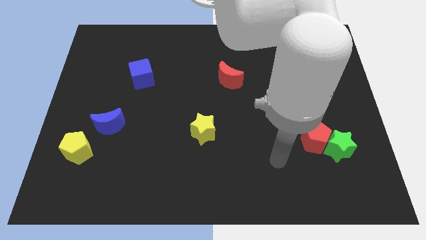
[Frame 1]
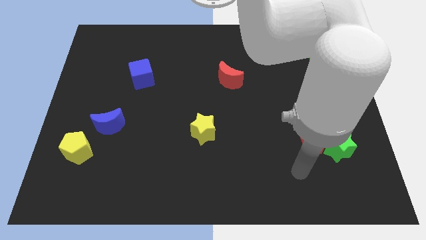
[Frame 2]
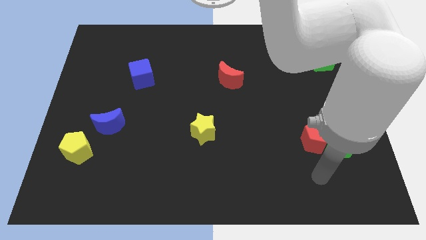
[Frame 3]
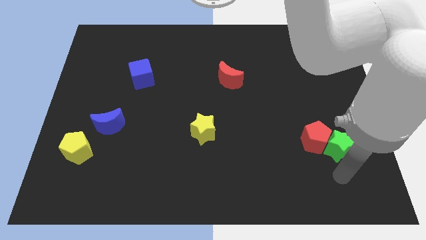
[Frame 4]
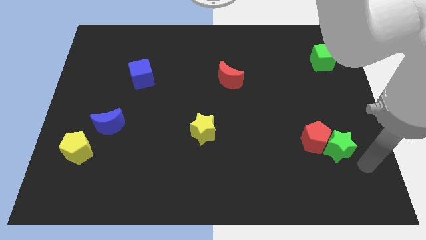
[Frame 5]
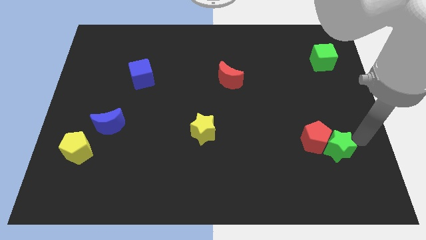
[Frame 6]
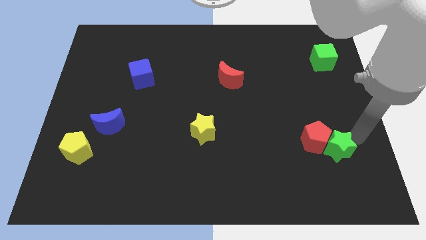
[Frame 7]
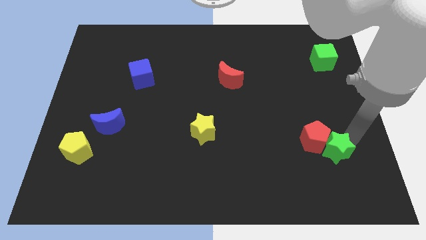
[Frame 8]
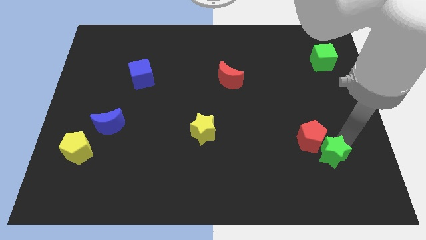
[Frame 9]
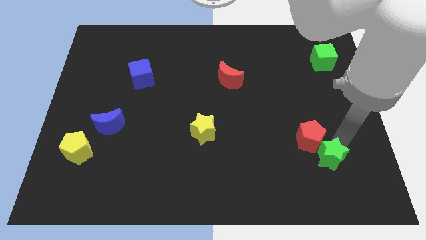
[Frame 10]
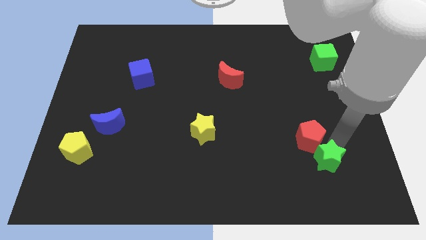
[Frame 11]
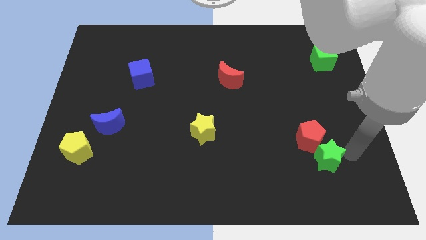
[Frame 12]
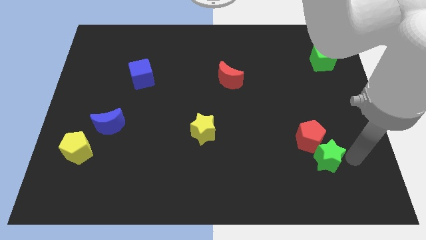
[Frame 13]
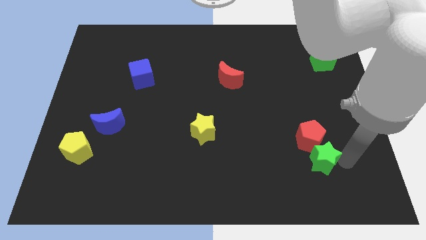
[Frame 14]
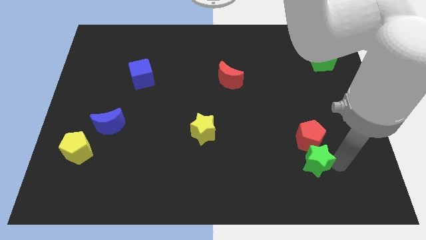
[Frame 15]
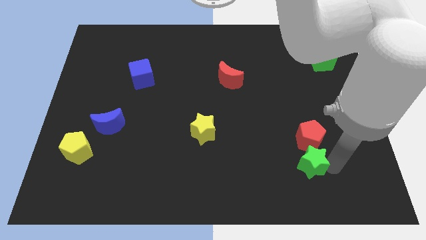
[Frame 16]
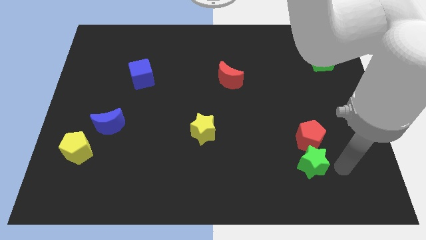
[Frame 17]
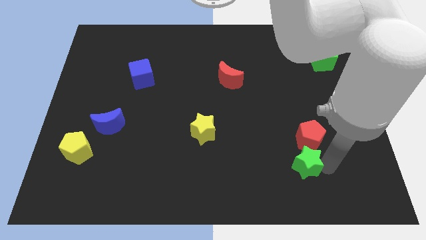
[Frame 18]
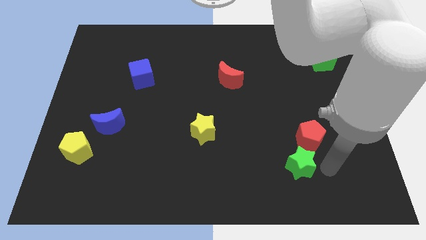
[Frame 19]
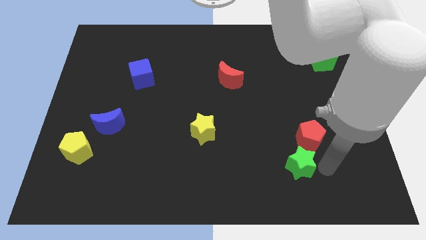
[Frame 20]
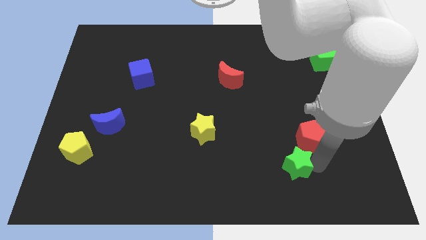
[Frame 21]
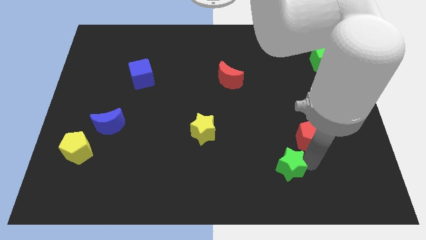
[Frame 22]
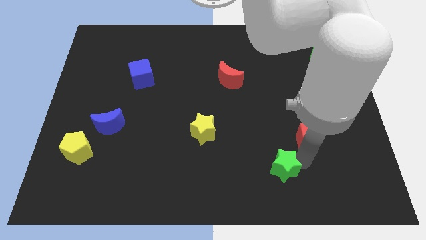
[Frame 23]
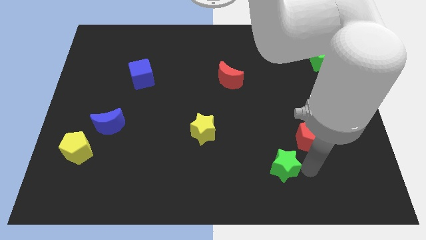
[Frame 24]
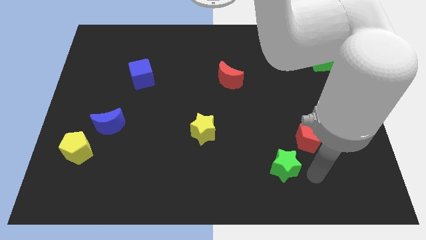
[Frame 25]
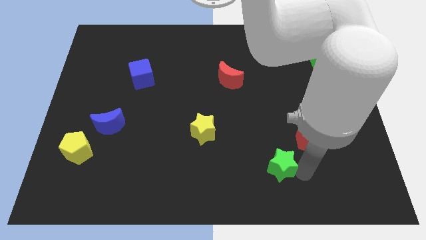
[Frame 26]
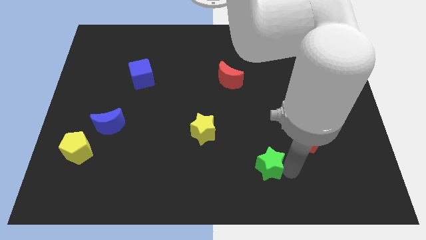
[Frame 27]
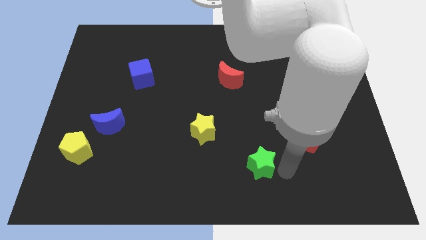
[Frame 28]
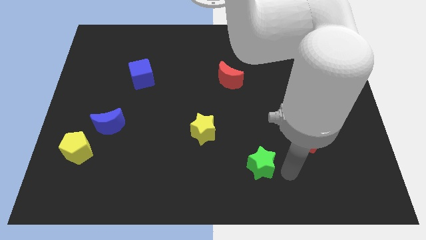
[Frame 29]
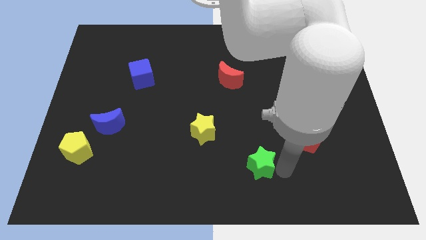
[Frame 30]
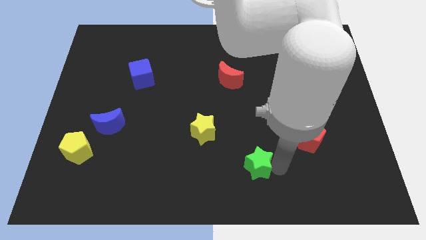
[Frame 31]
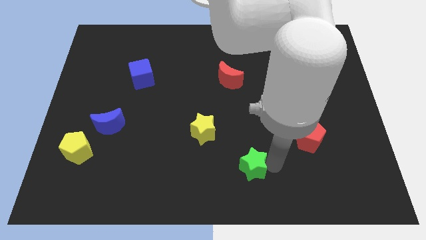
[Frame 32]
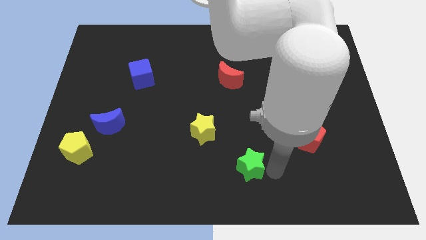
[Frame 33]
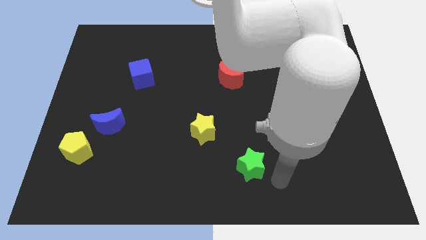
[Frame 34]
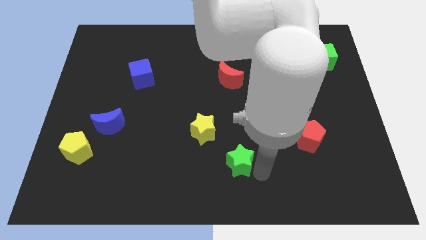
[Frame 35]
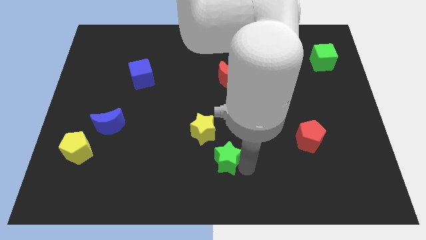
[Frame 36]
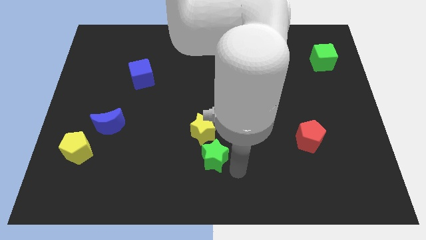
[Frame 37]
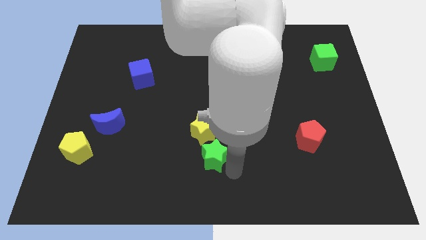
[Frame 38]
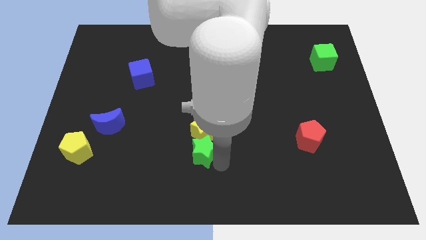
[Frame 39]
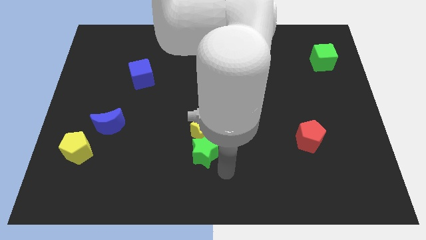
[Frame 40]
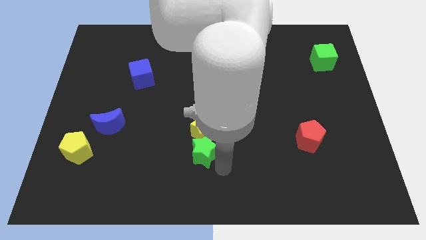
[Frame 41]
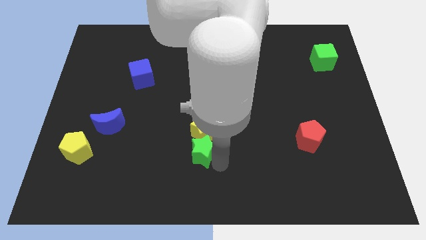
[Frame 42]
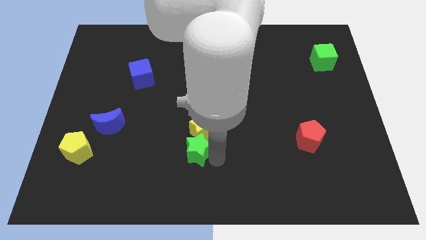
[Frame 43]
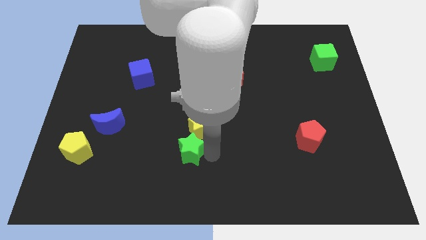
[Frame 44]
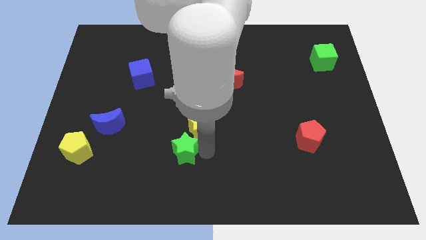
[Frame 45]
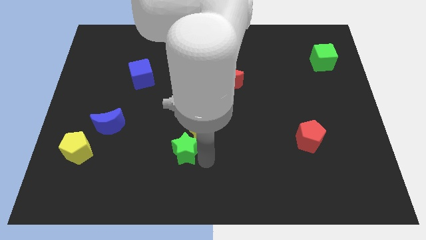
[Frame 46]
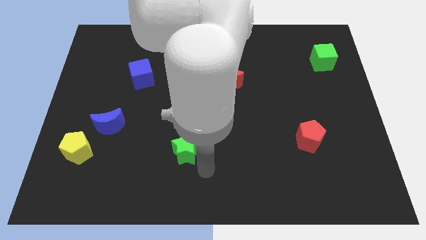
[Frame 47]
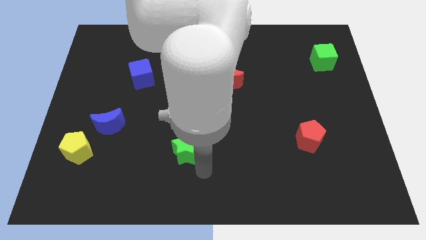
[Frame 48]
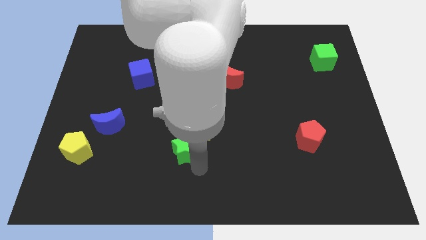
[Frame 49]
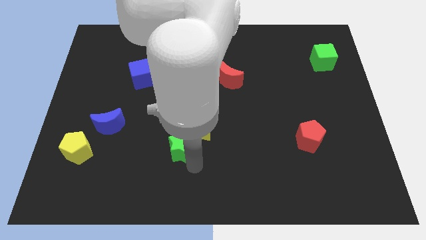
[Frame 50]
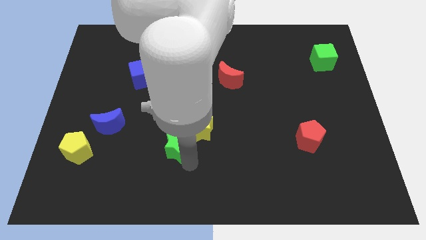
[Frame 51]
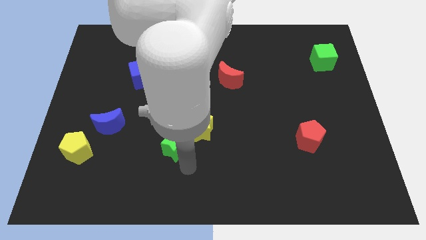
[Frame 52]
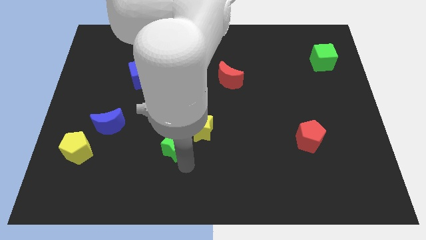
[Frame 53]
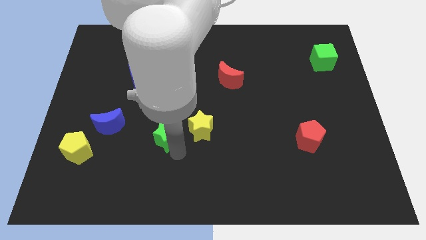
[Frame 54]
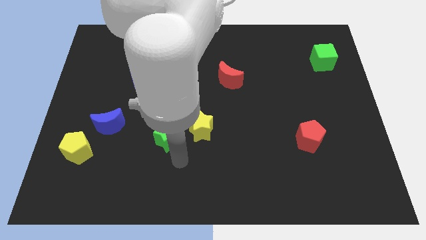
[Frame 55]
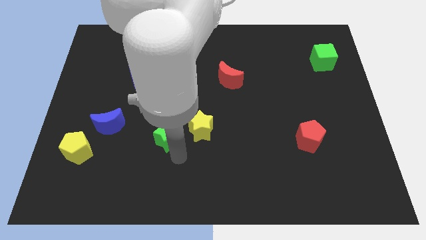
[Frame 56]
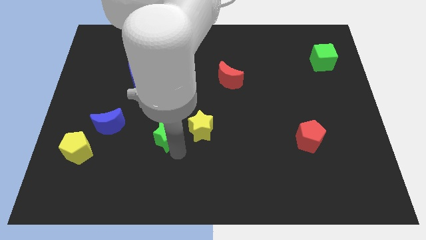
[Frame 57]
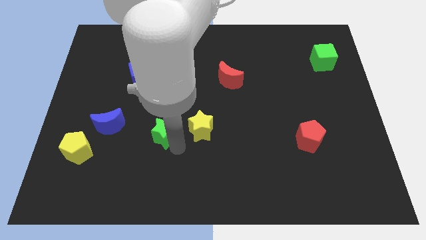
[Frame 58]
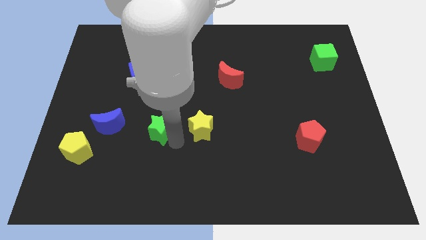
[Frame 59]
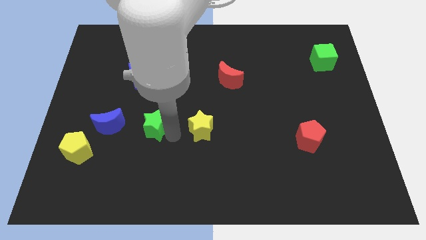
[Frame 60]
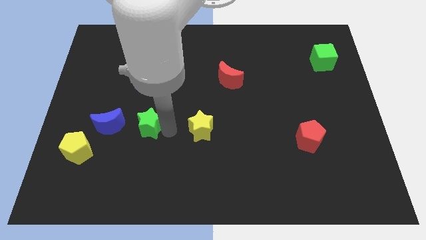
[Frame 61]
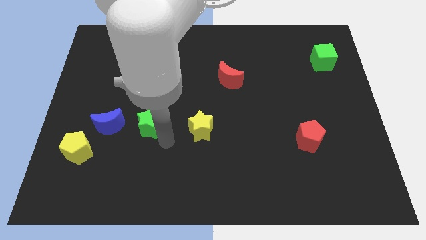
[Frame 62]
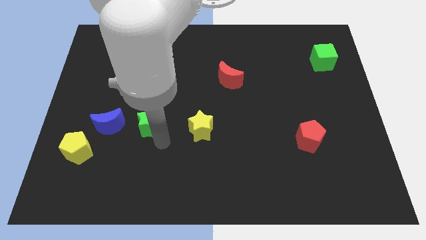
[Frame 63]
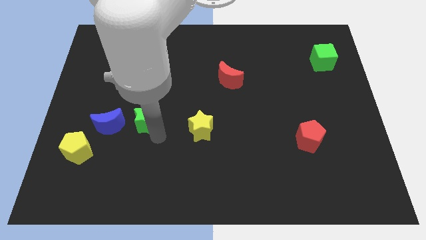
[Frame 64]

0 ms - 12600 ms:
push the green star to the bottom side of the blue cube

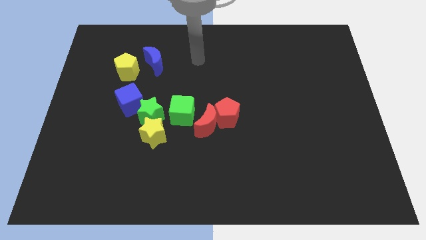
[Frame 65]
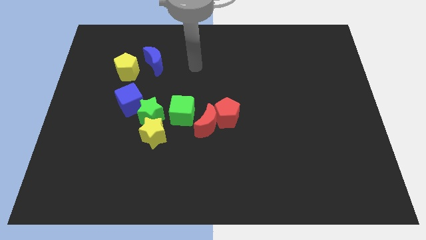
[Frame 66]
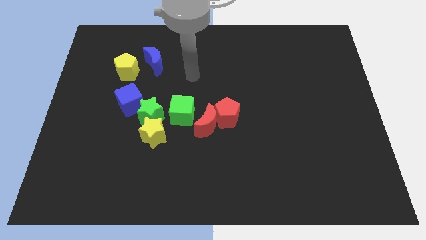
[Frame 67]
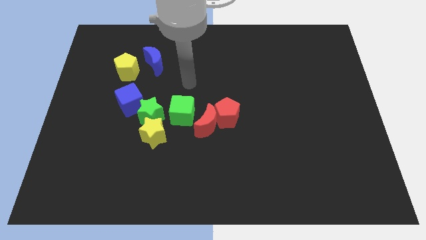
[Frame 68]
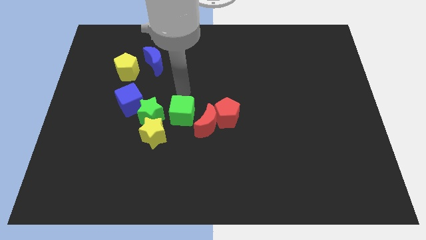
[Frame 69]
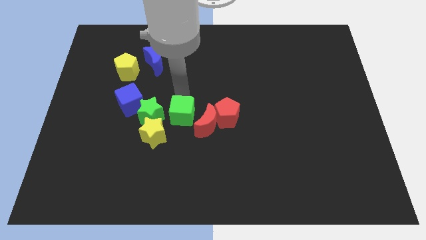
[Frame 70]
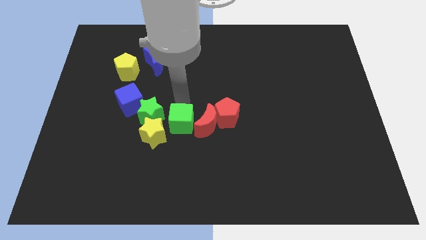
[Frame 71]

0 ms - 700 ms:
slide the green cube to the bottom left of the red moon
